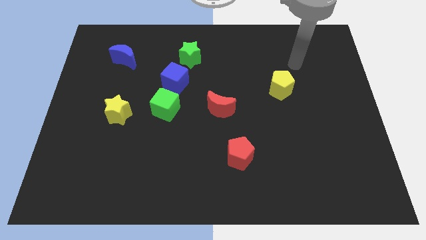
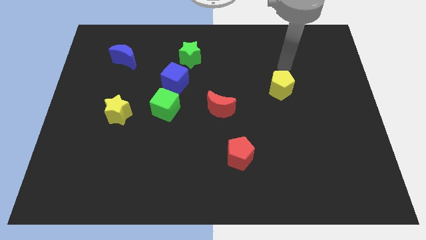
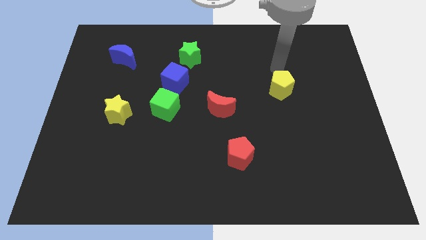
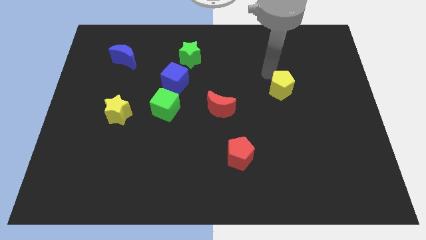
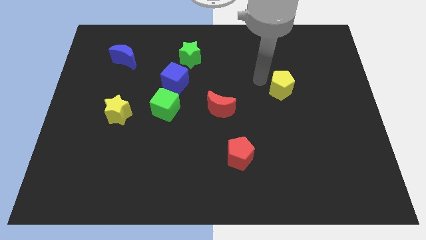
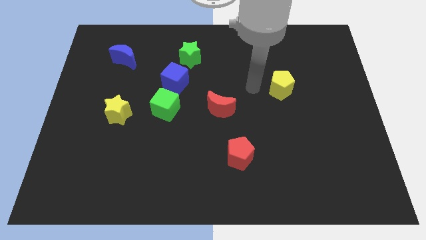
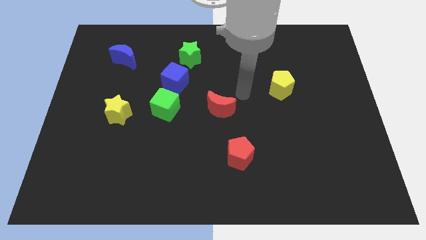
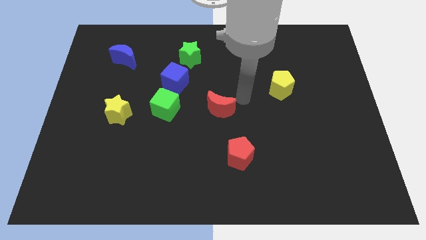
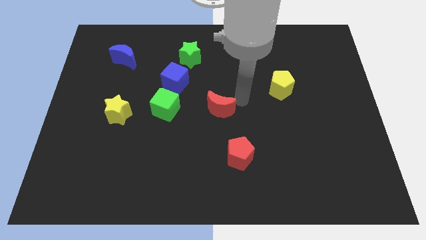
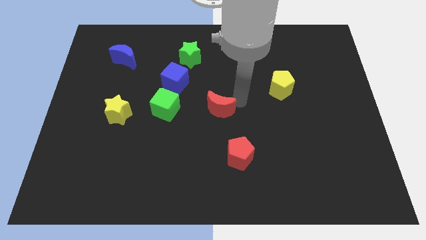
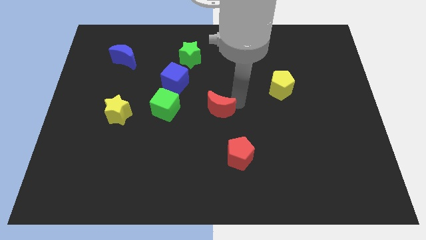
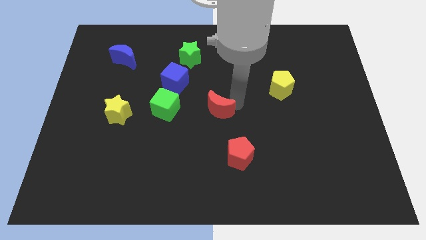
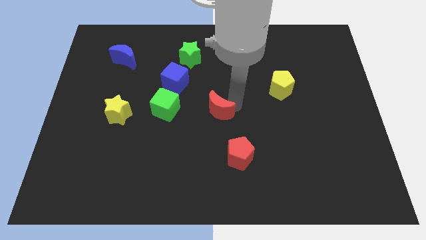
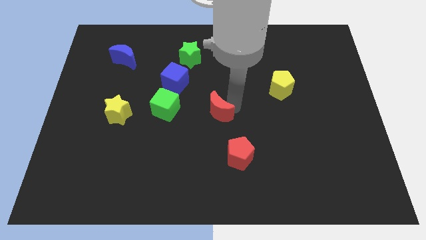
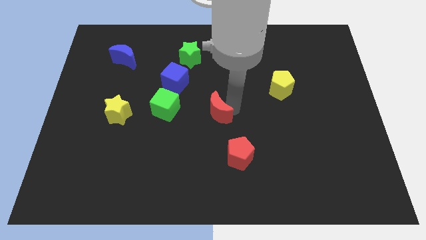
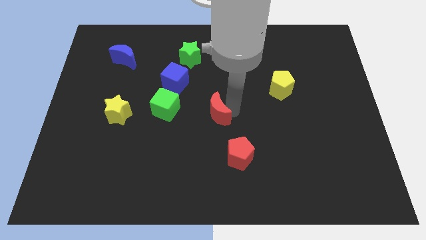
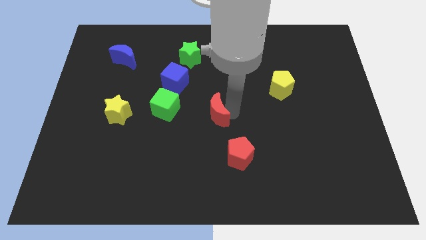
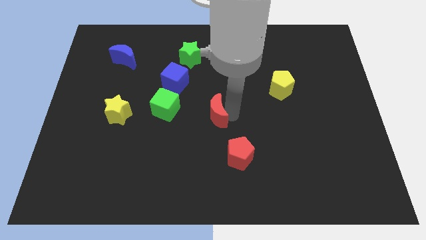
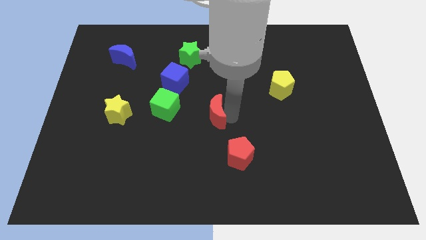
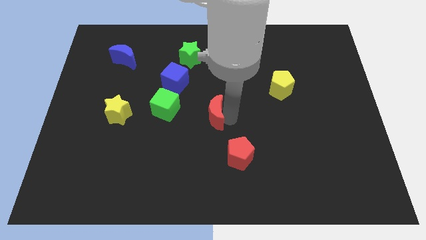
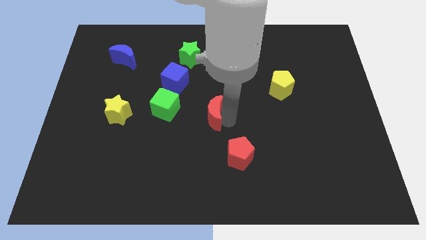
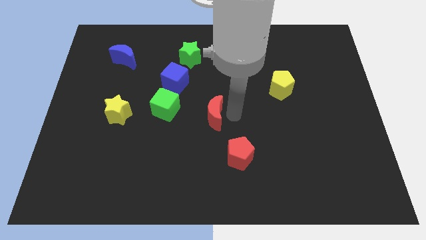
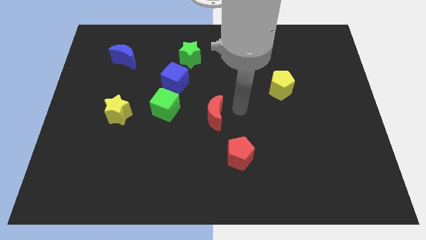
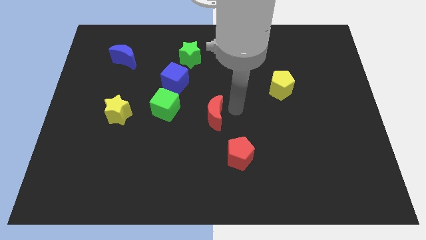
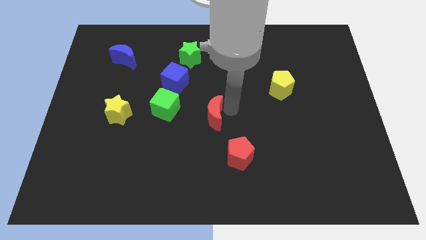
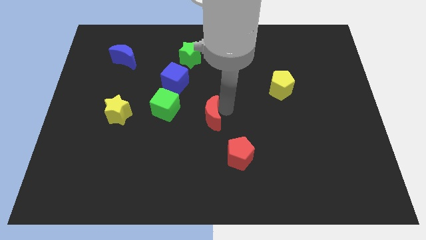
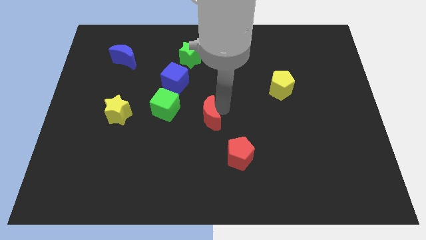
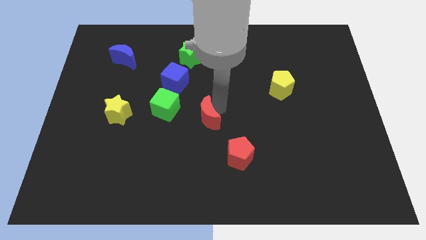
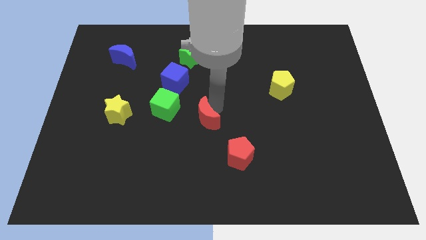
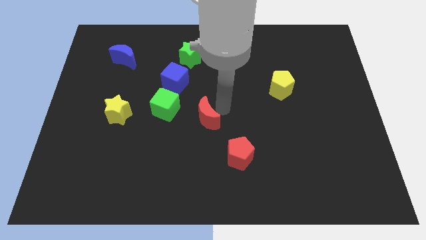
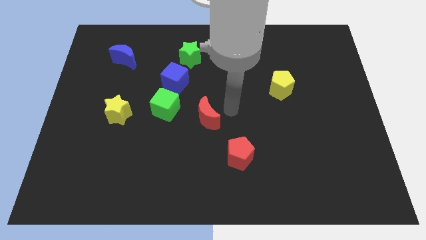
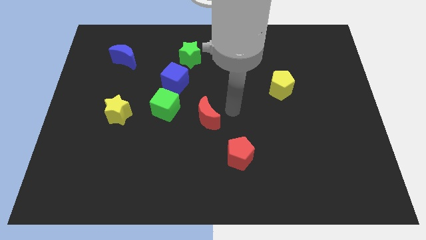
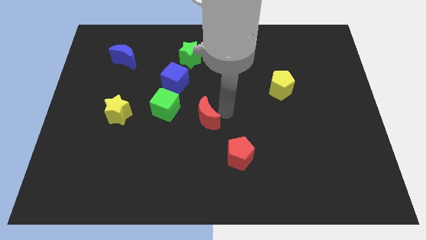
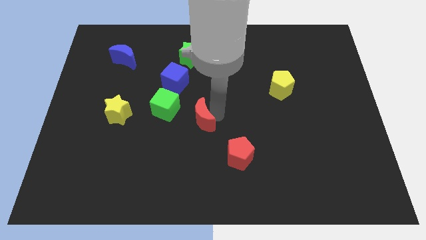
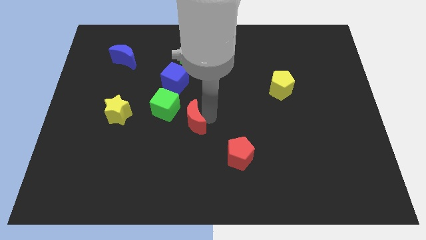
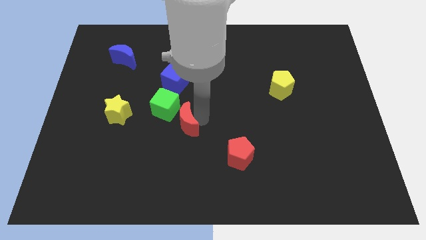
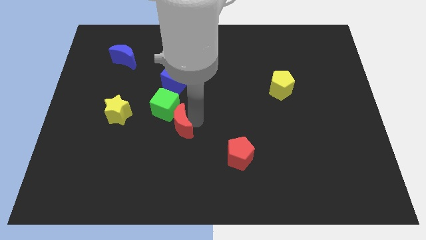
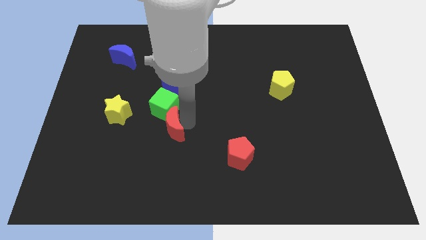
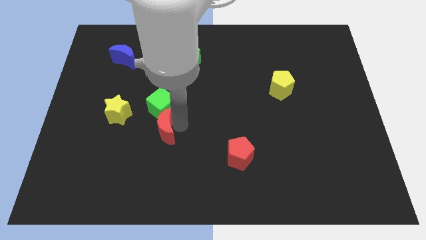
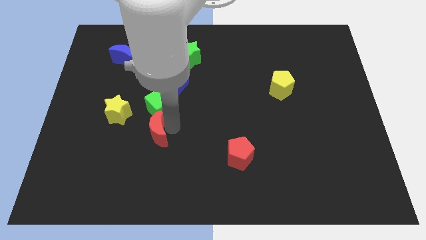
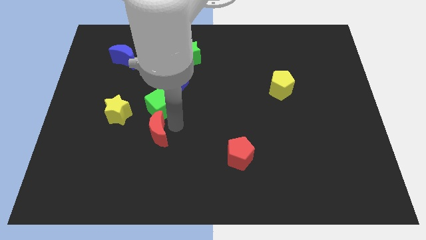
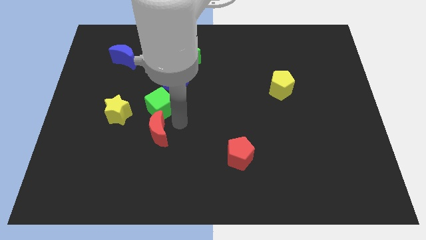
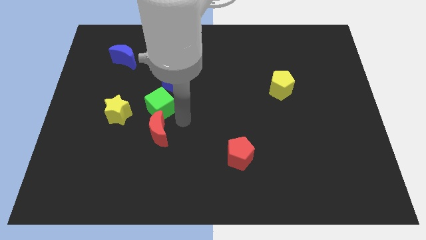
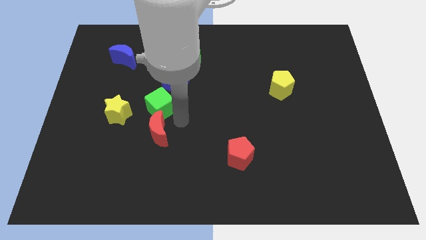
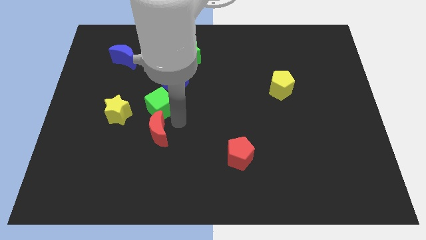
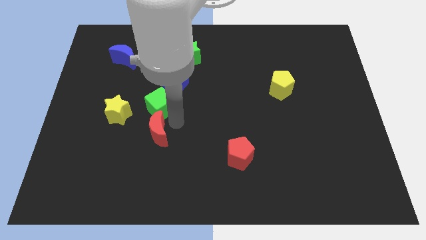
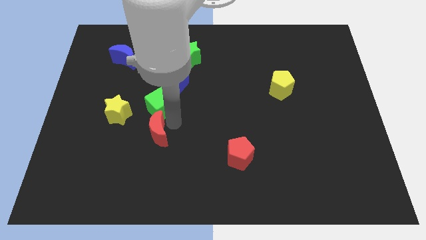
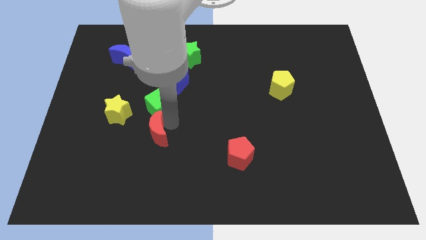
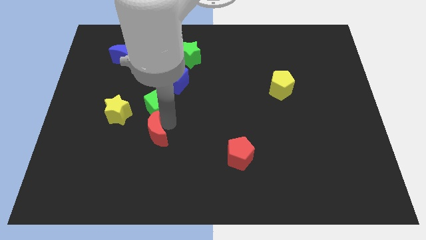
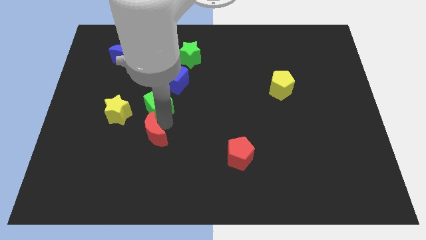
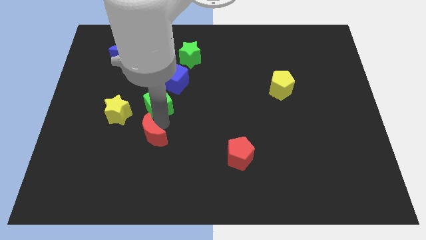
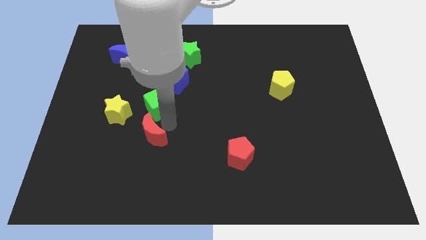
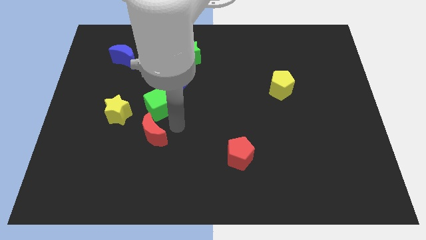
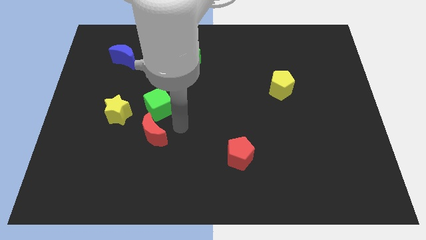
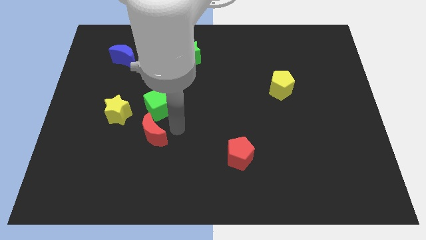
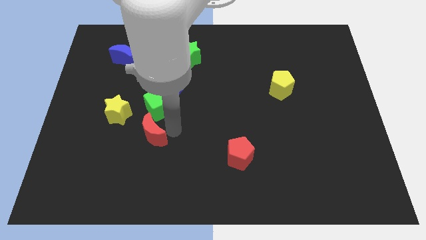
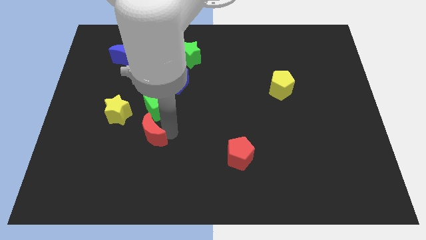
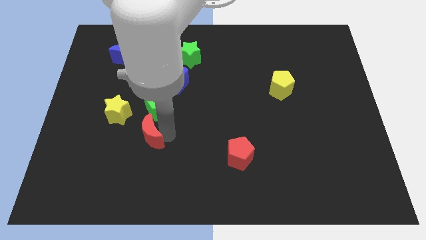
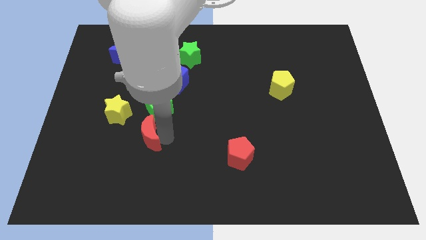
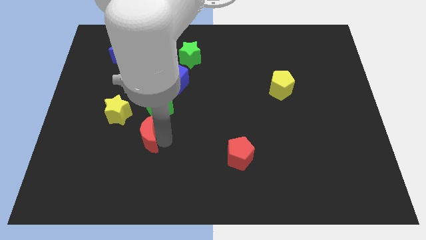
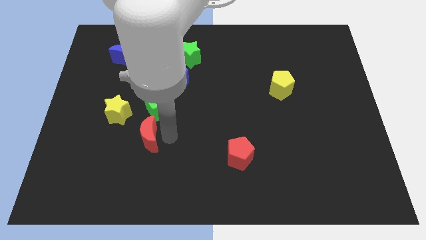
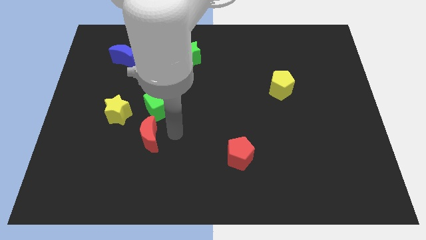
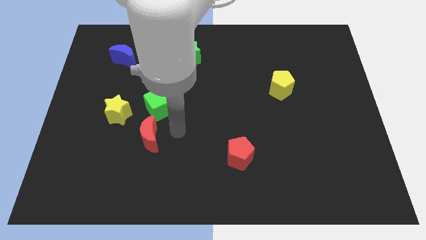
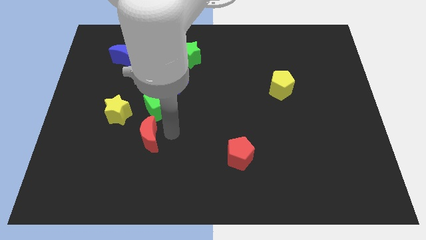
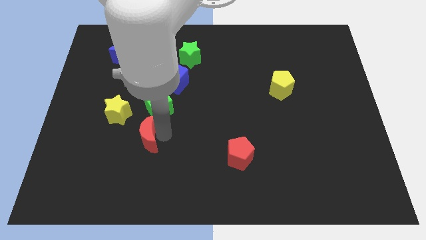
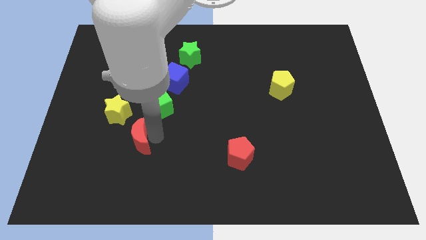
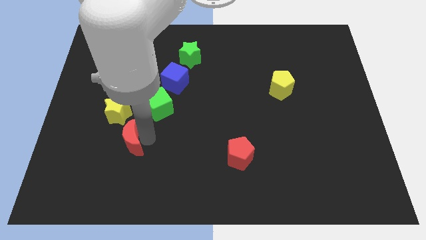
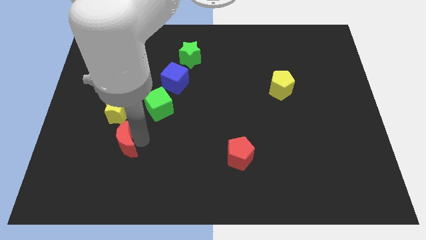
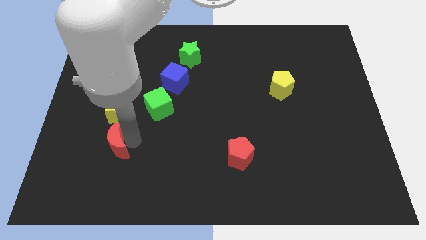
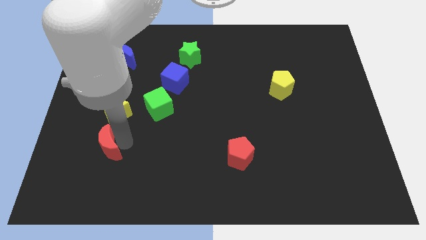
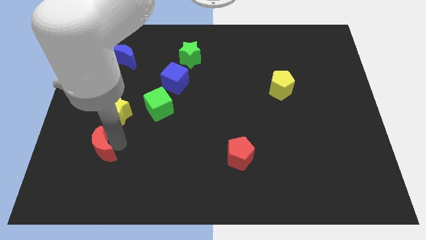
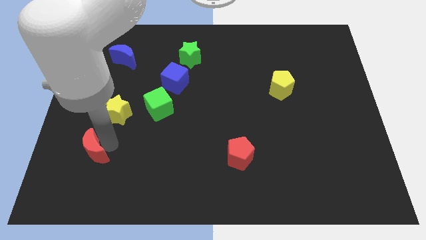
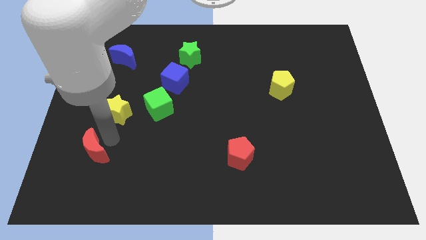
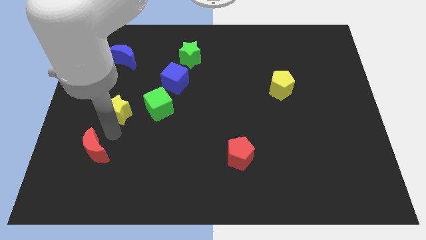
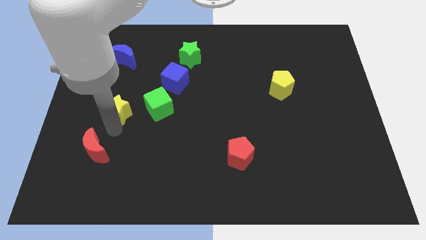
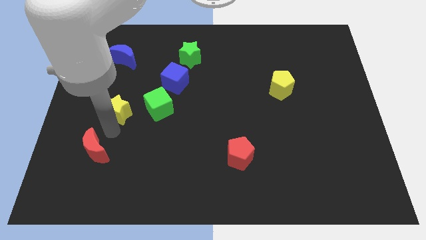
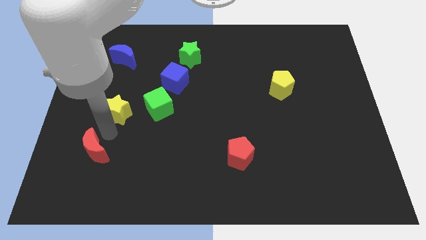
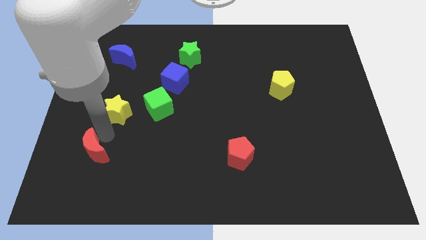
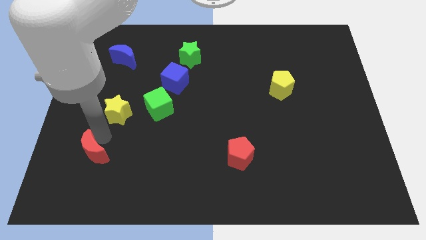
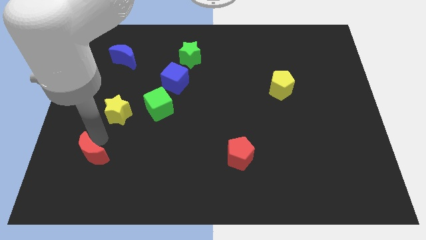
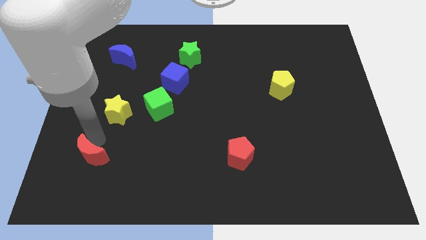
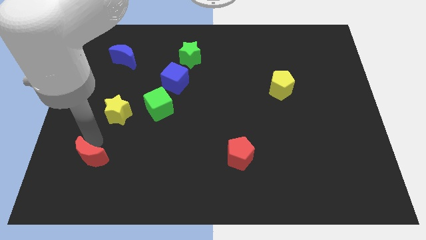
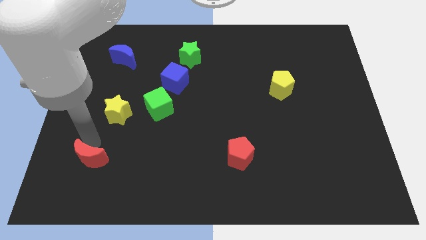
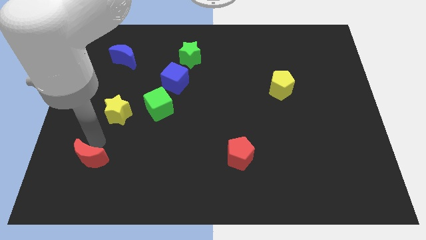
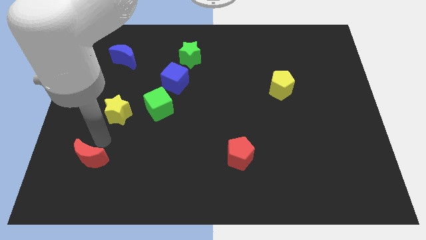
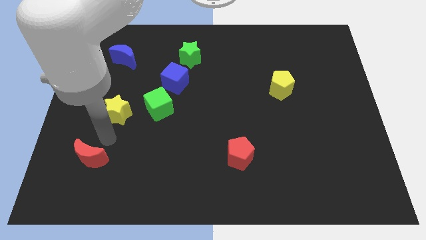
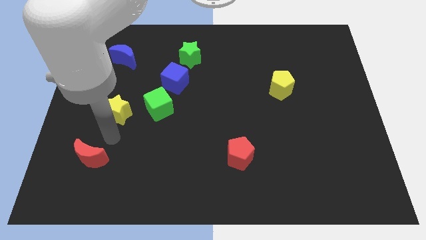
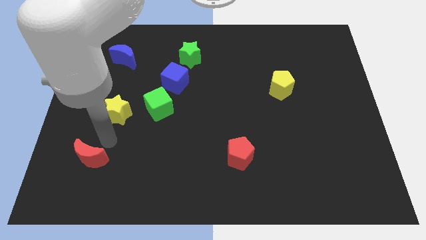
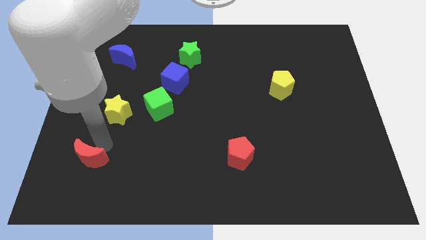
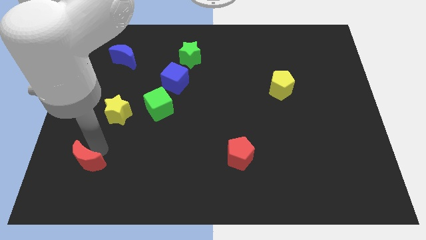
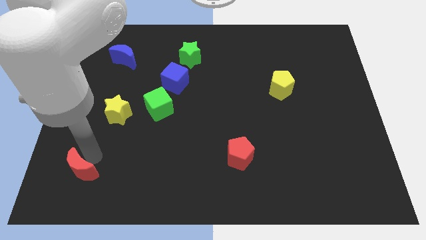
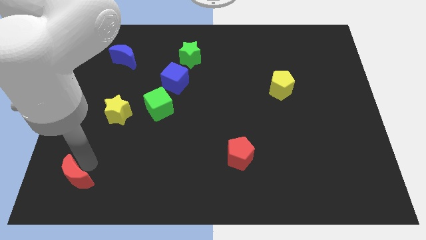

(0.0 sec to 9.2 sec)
push the red moon to the lower left corner
